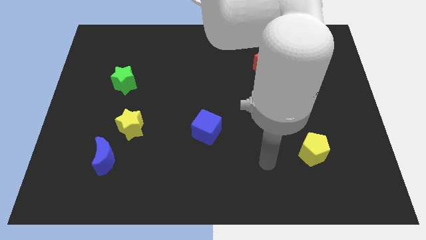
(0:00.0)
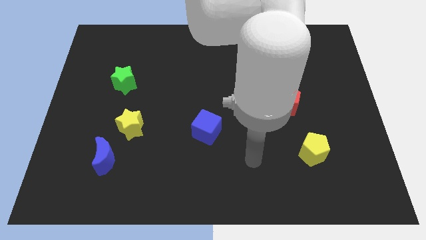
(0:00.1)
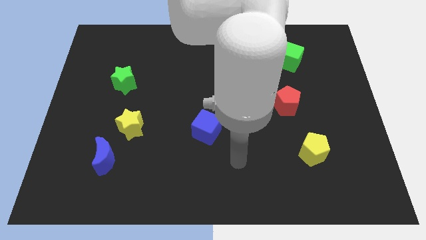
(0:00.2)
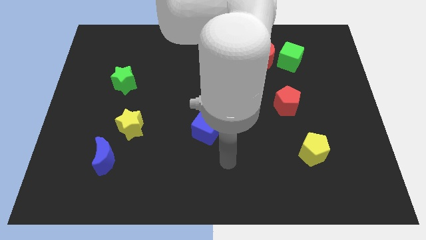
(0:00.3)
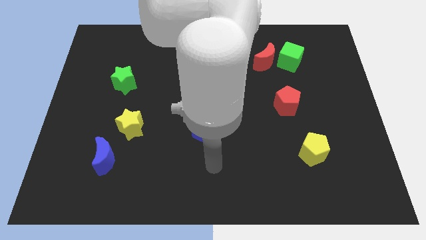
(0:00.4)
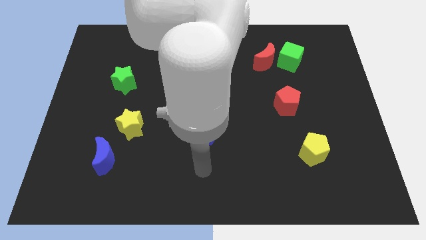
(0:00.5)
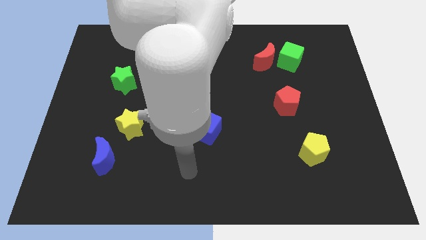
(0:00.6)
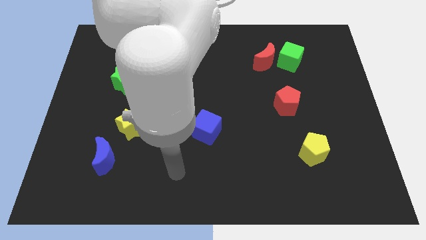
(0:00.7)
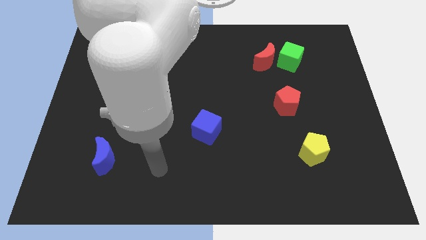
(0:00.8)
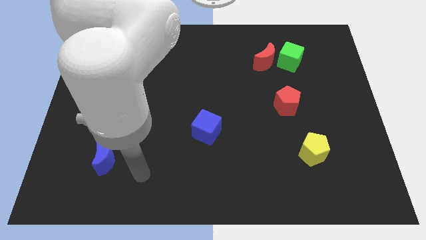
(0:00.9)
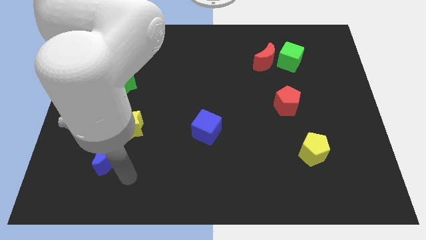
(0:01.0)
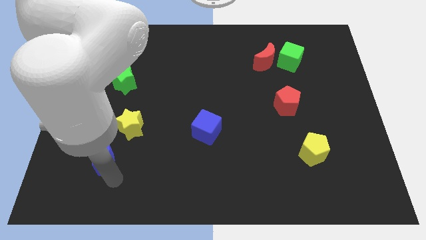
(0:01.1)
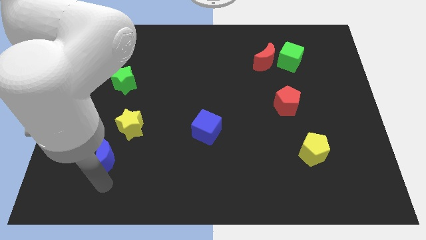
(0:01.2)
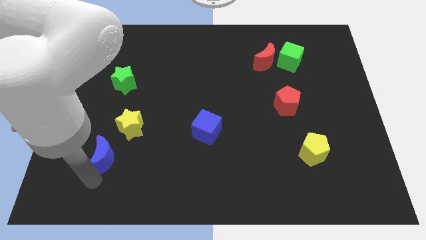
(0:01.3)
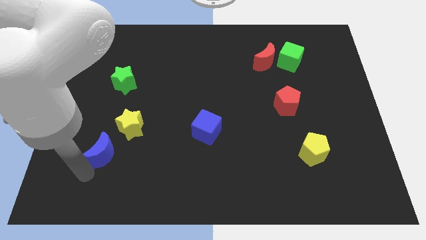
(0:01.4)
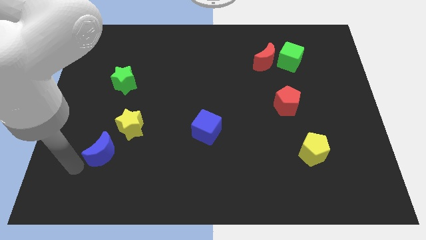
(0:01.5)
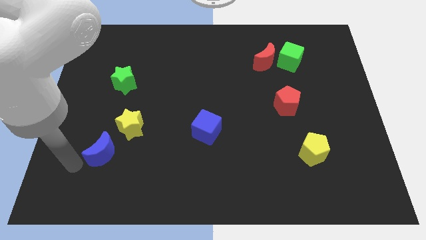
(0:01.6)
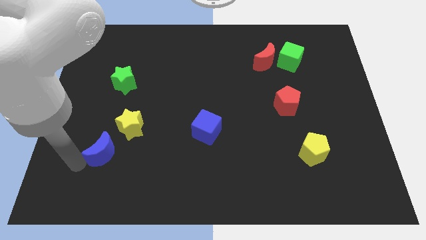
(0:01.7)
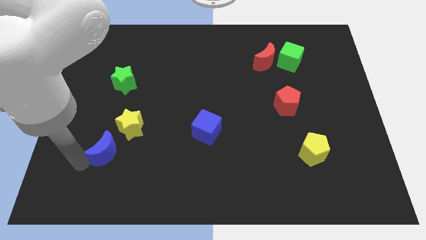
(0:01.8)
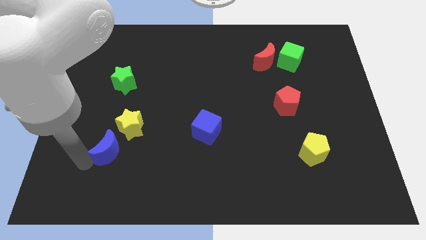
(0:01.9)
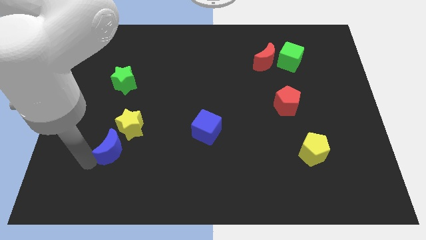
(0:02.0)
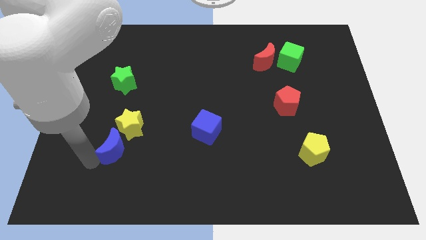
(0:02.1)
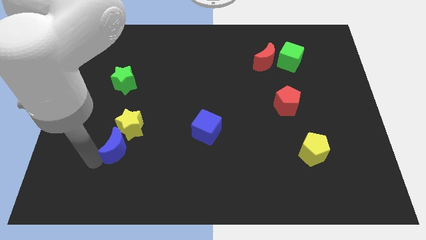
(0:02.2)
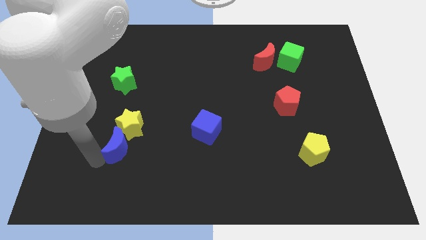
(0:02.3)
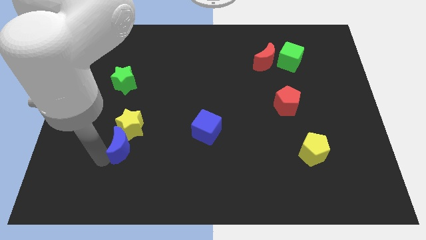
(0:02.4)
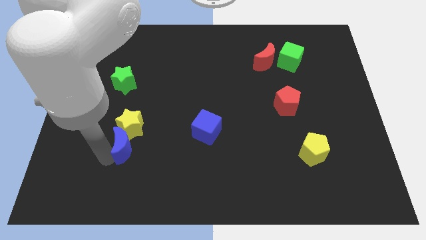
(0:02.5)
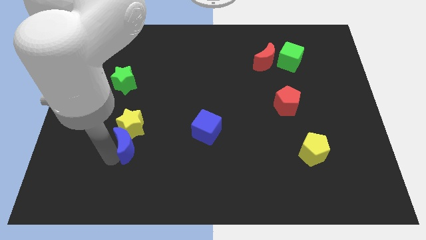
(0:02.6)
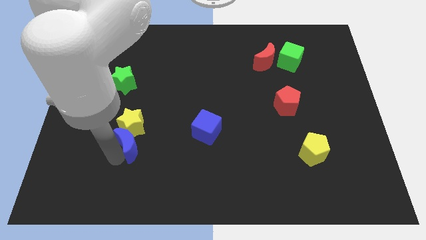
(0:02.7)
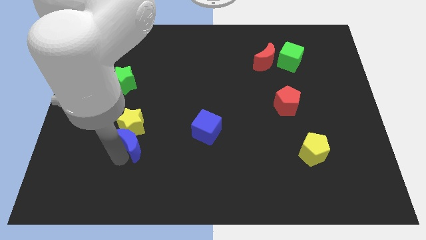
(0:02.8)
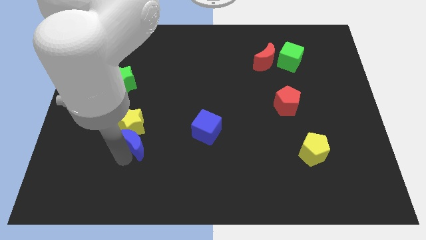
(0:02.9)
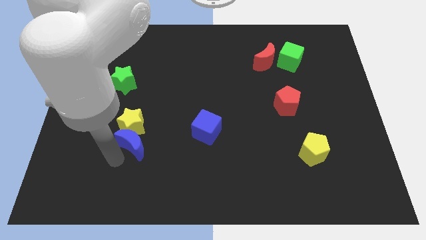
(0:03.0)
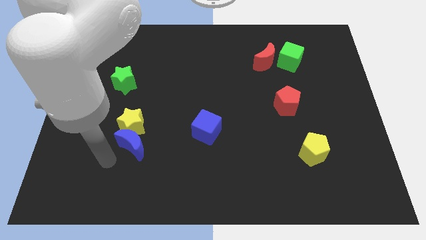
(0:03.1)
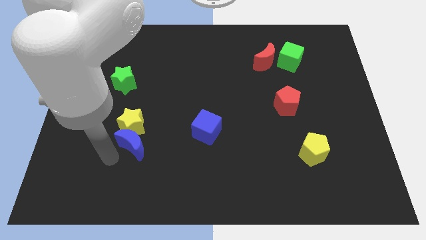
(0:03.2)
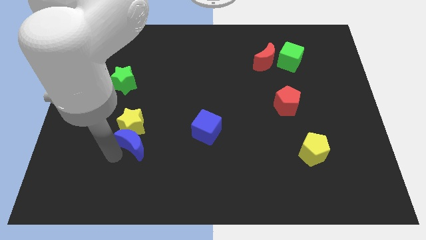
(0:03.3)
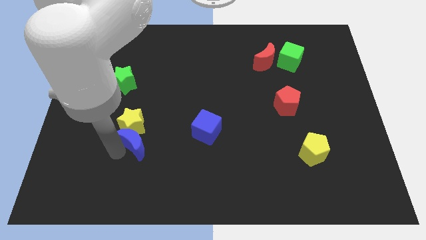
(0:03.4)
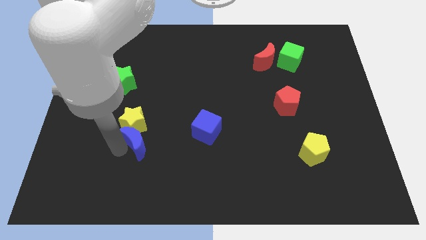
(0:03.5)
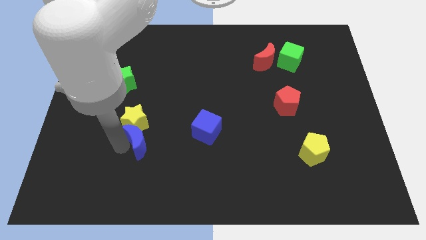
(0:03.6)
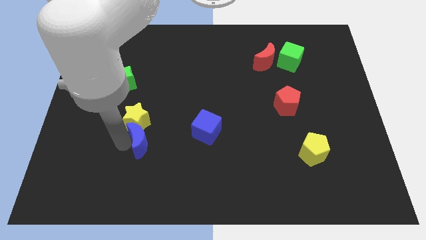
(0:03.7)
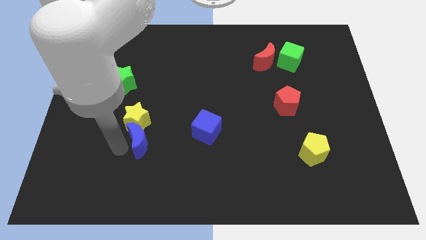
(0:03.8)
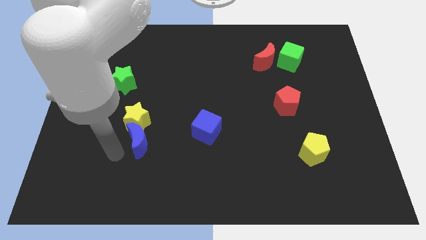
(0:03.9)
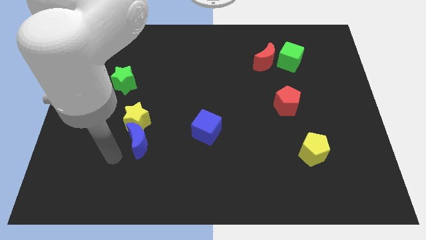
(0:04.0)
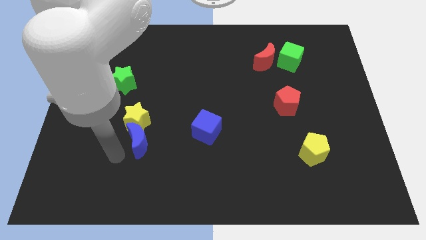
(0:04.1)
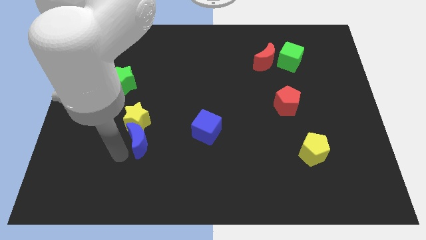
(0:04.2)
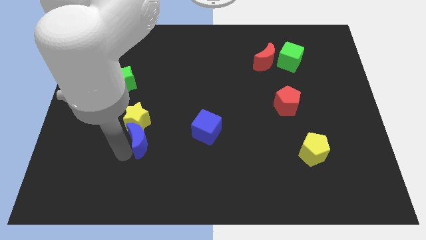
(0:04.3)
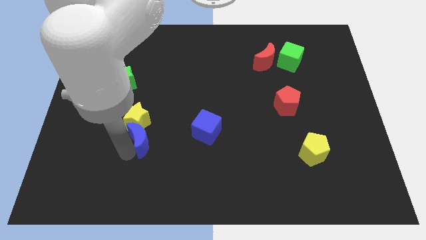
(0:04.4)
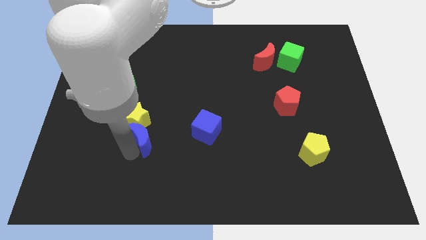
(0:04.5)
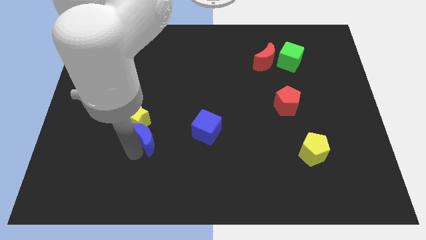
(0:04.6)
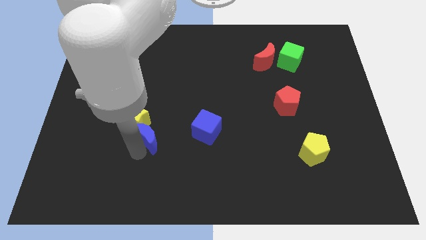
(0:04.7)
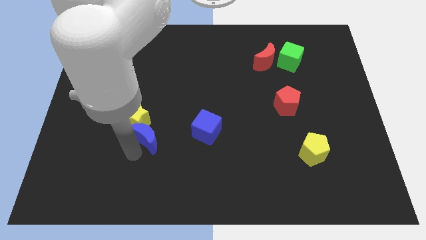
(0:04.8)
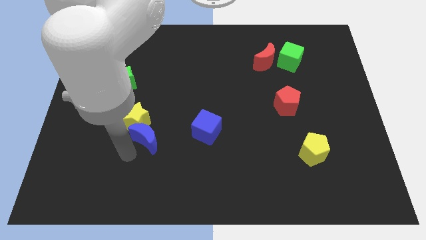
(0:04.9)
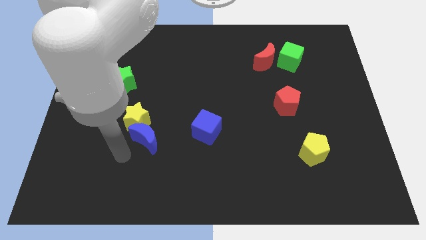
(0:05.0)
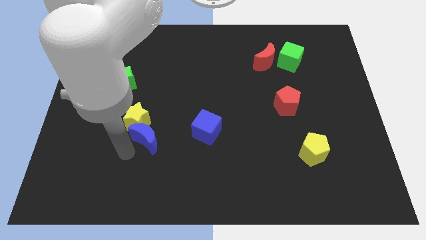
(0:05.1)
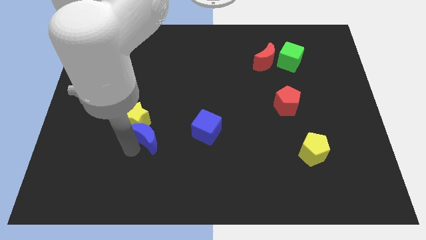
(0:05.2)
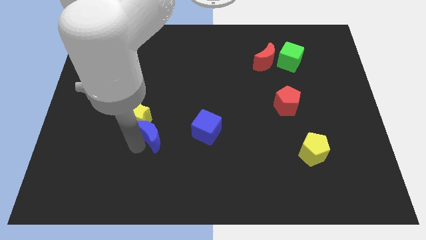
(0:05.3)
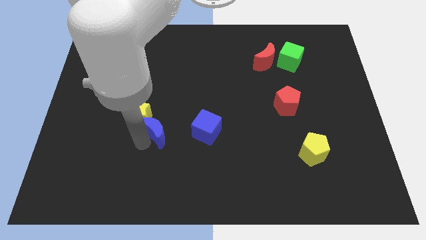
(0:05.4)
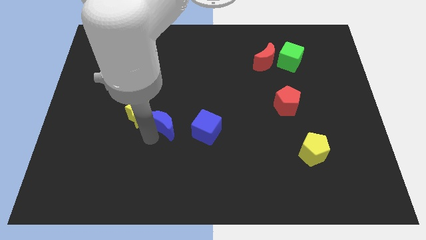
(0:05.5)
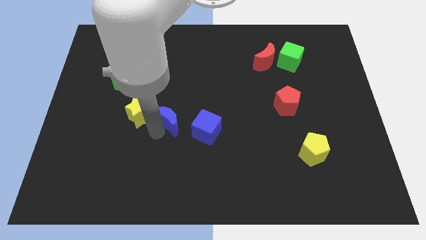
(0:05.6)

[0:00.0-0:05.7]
push the blue moon to the top left of the blue cube

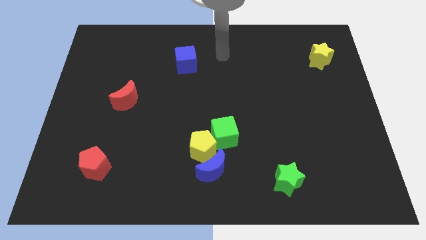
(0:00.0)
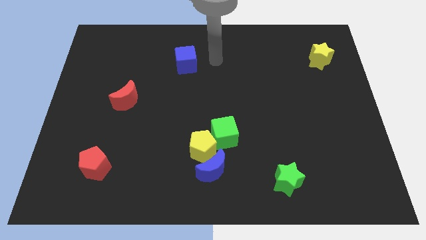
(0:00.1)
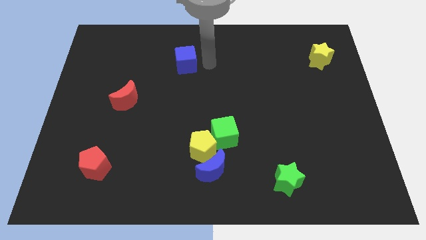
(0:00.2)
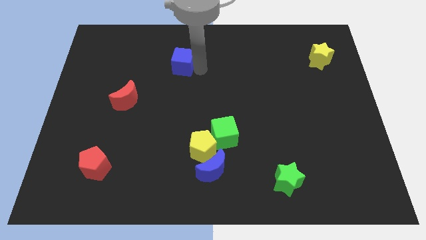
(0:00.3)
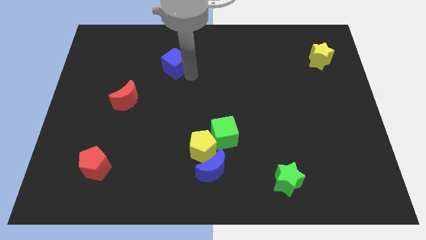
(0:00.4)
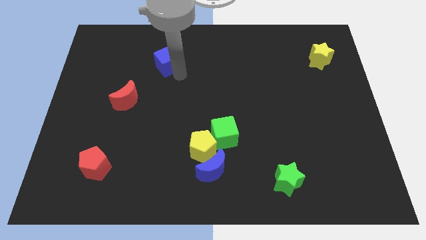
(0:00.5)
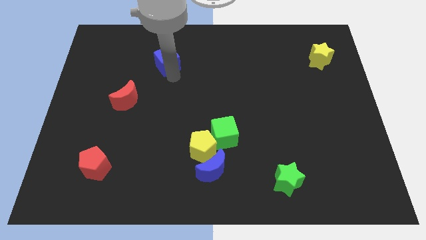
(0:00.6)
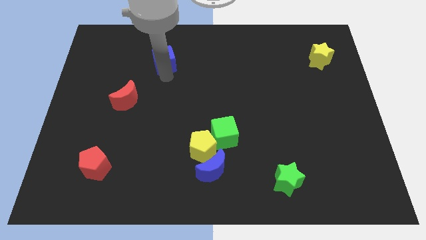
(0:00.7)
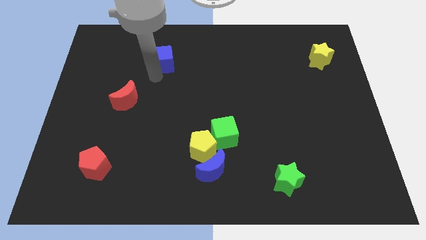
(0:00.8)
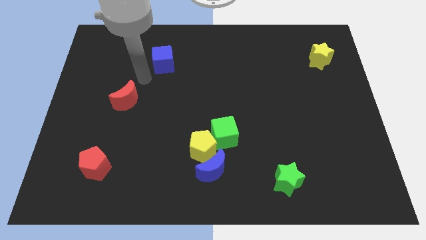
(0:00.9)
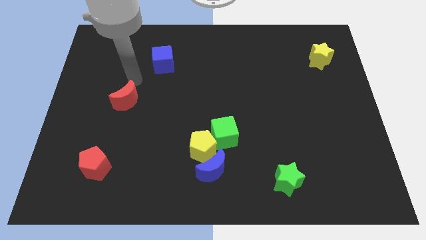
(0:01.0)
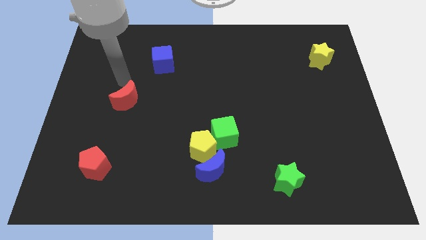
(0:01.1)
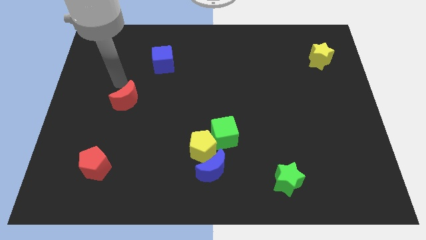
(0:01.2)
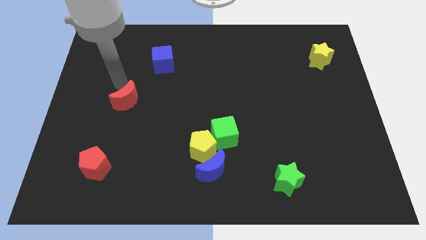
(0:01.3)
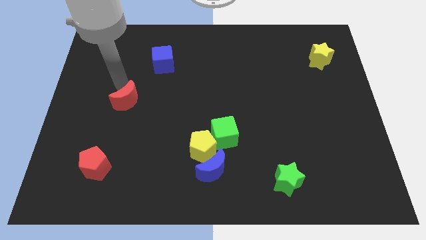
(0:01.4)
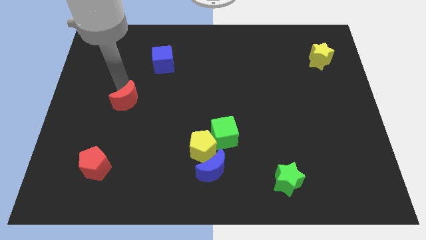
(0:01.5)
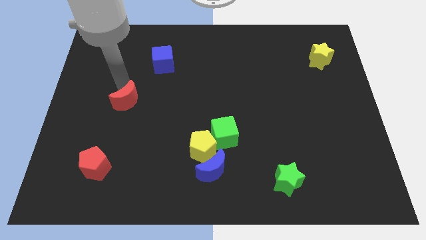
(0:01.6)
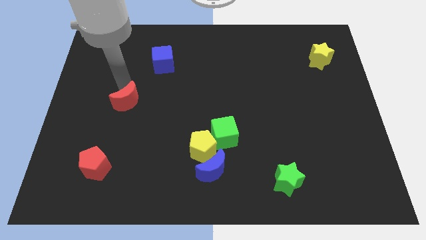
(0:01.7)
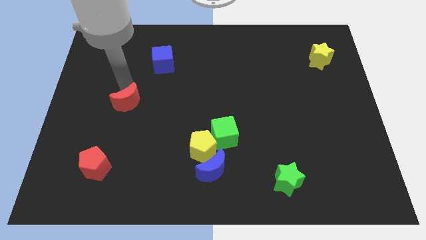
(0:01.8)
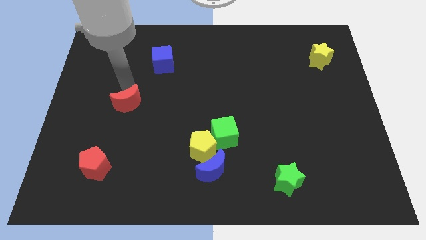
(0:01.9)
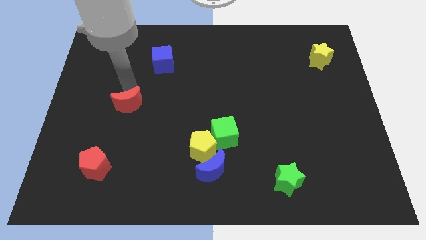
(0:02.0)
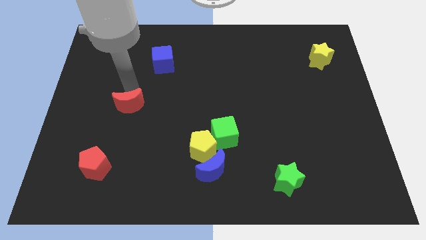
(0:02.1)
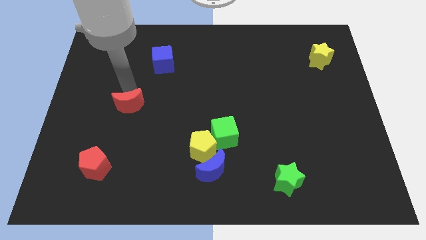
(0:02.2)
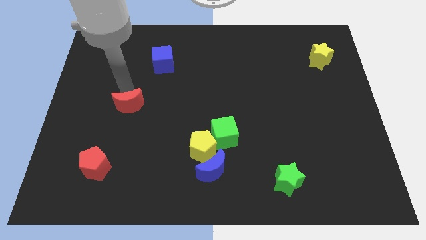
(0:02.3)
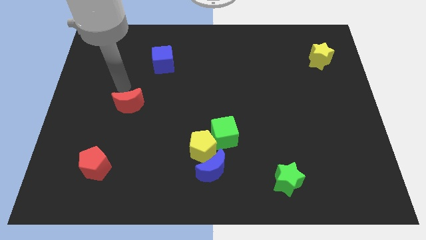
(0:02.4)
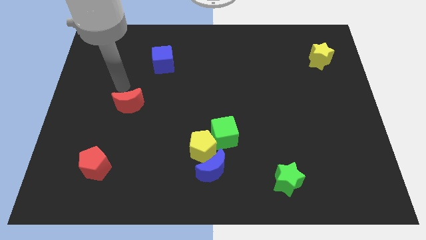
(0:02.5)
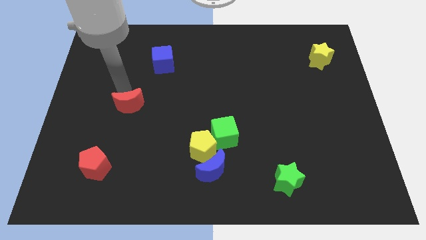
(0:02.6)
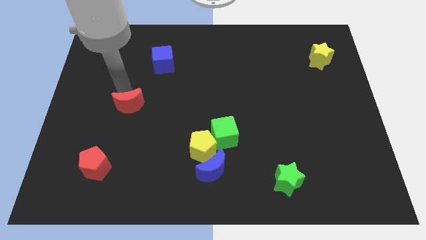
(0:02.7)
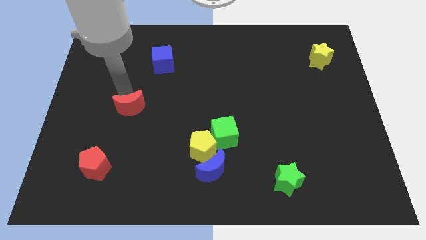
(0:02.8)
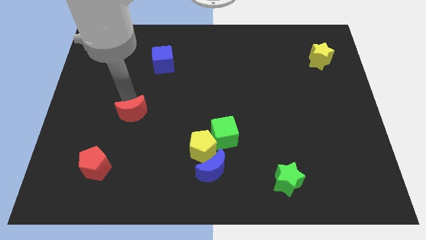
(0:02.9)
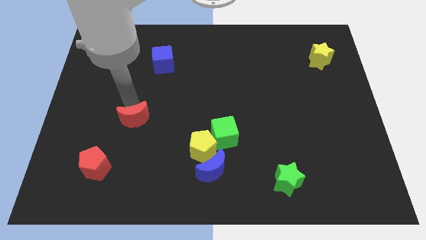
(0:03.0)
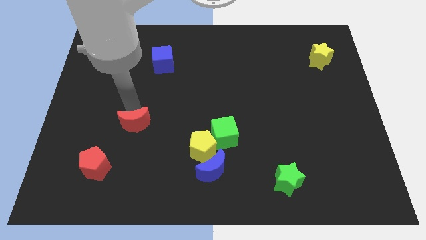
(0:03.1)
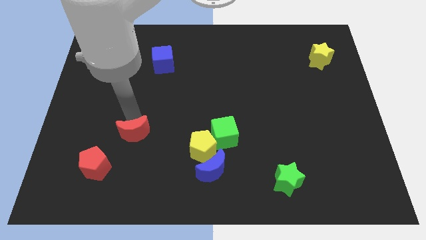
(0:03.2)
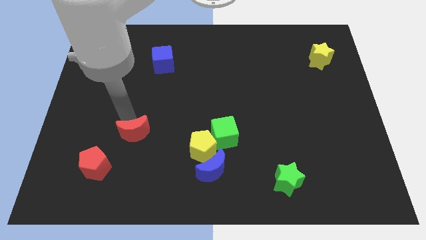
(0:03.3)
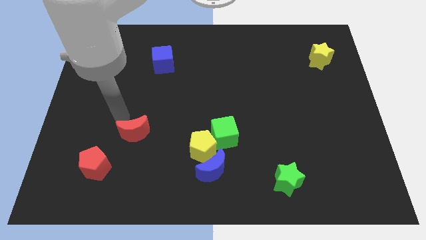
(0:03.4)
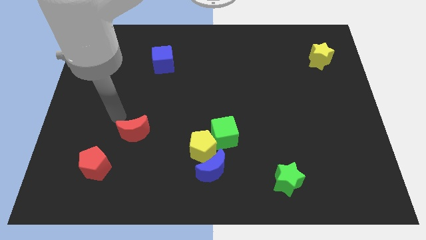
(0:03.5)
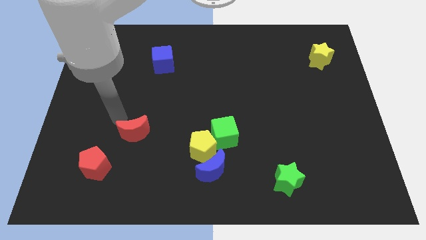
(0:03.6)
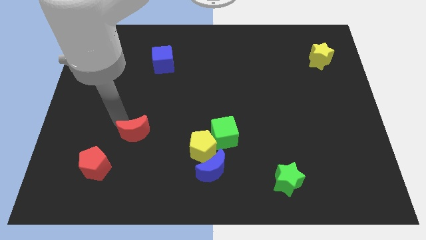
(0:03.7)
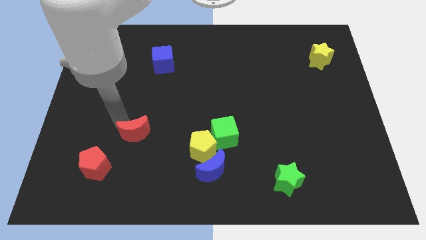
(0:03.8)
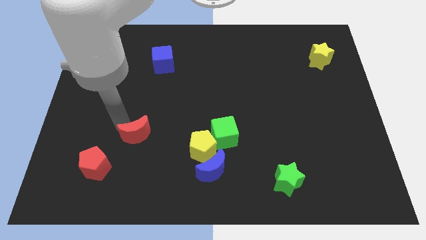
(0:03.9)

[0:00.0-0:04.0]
slide the red moon to the left of the yellow pentagon
